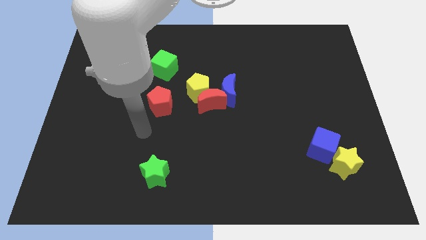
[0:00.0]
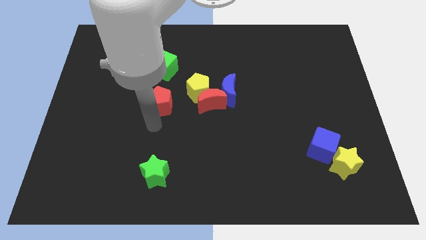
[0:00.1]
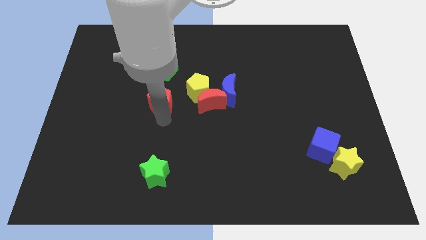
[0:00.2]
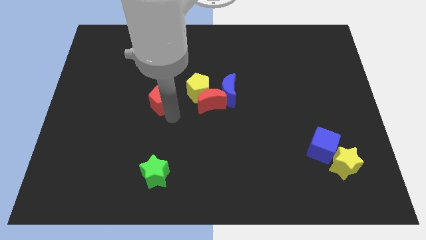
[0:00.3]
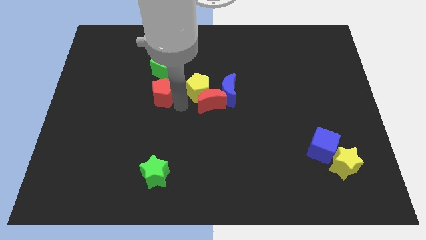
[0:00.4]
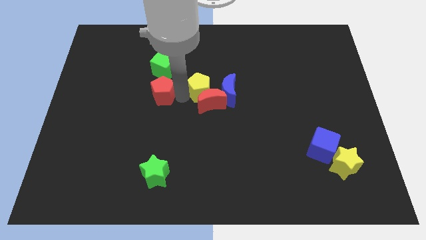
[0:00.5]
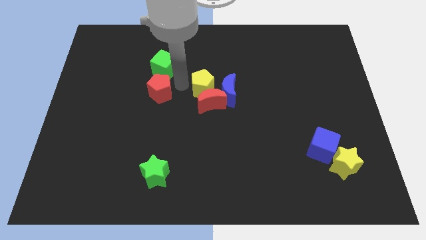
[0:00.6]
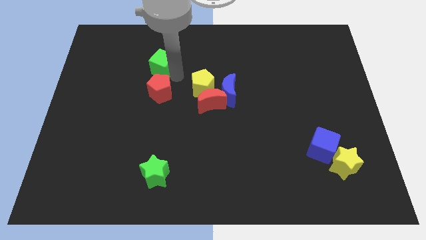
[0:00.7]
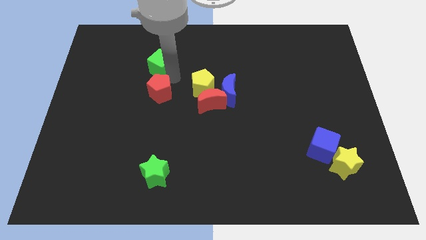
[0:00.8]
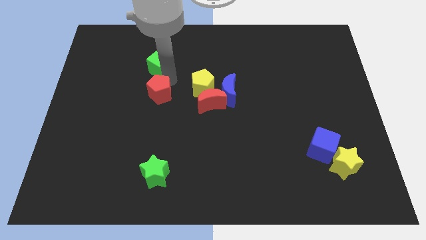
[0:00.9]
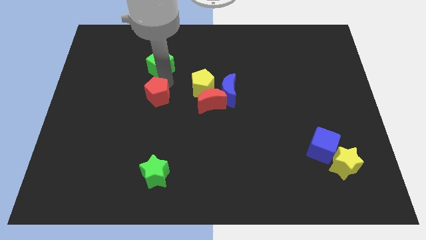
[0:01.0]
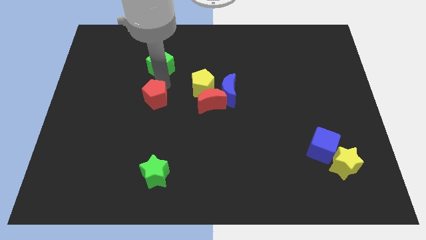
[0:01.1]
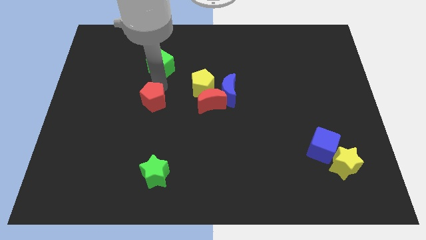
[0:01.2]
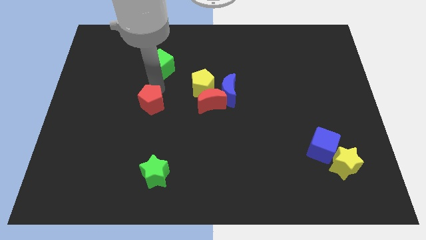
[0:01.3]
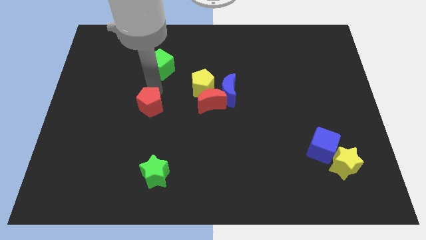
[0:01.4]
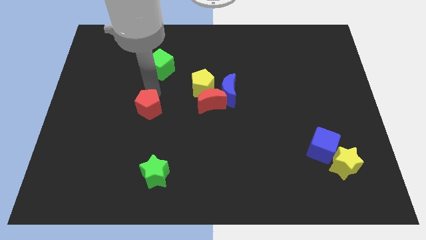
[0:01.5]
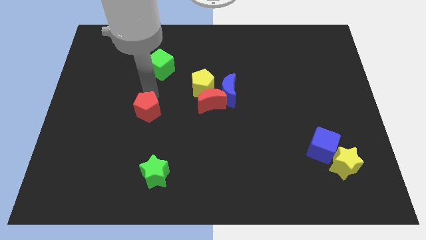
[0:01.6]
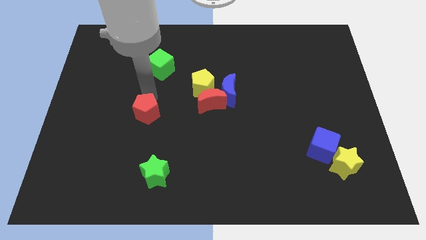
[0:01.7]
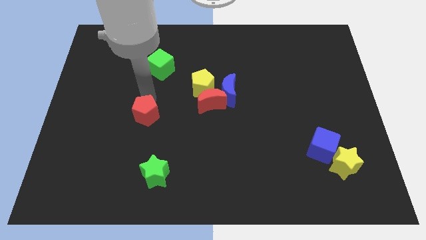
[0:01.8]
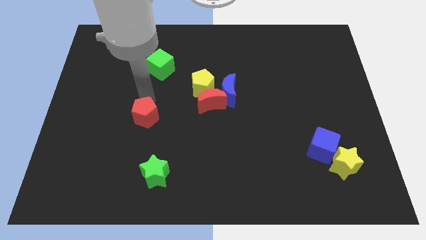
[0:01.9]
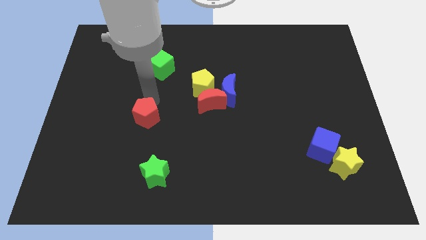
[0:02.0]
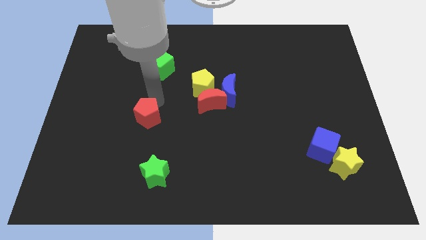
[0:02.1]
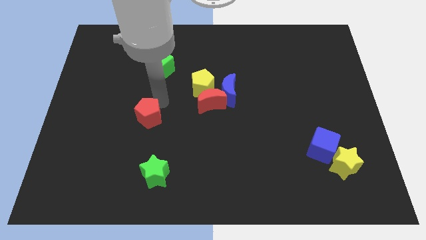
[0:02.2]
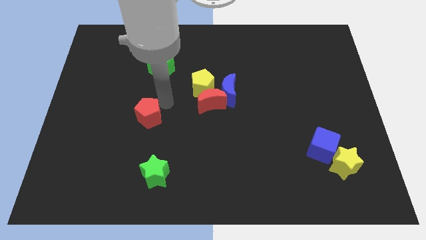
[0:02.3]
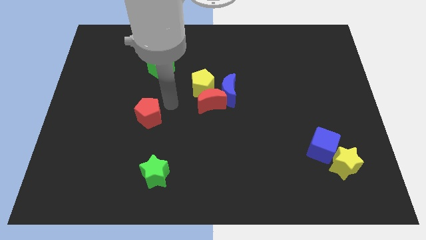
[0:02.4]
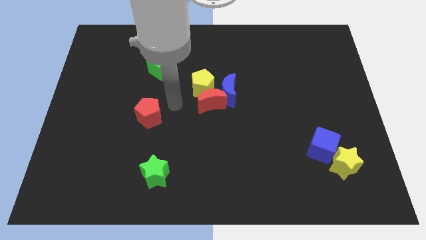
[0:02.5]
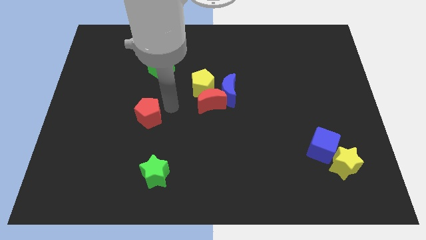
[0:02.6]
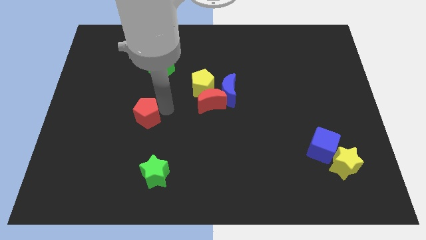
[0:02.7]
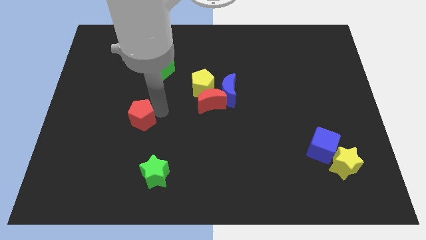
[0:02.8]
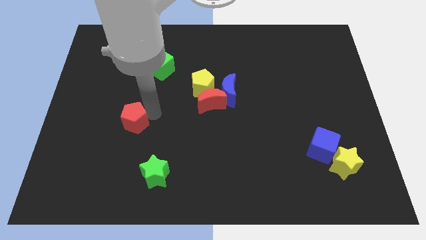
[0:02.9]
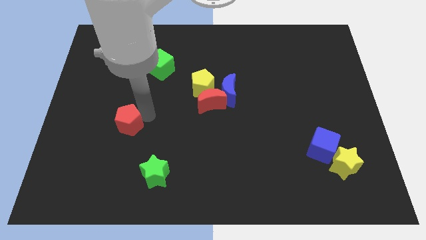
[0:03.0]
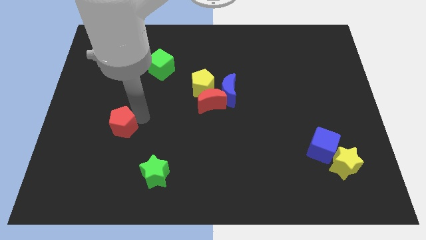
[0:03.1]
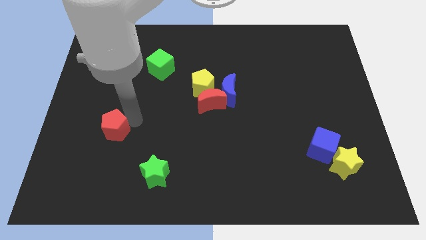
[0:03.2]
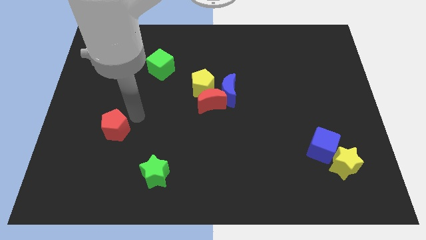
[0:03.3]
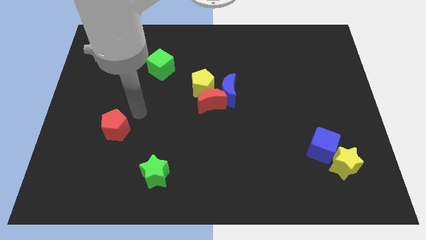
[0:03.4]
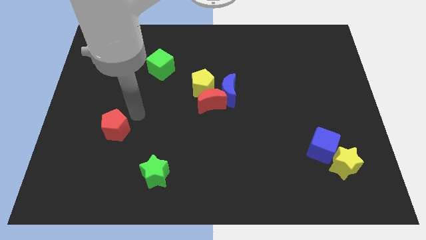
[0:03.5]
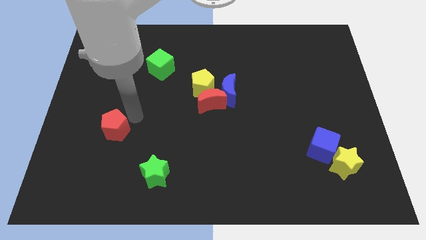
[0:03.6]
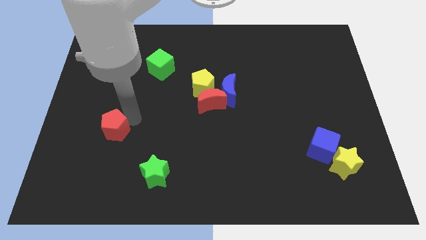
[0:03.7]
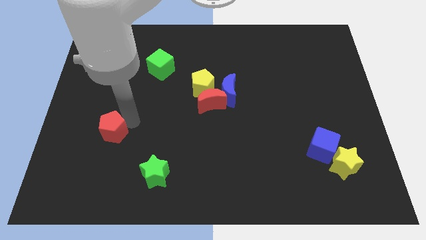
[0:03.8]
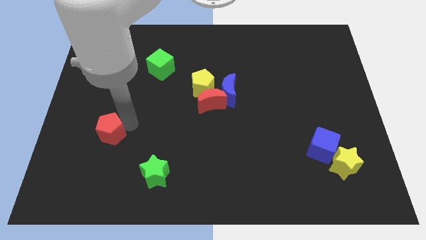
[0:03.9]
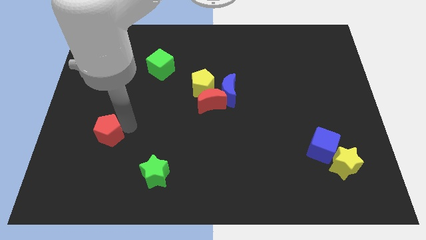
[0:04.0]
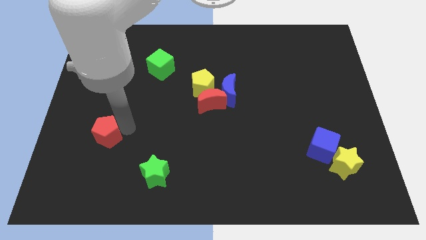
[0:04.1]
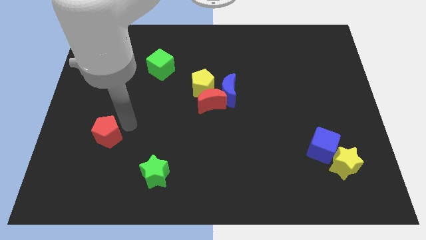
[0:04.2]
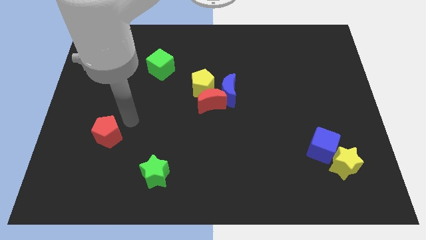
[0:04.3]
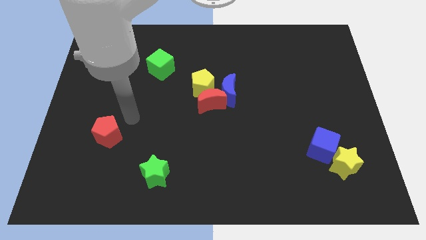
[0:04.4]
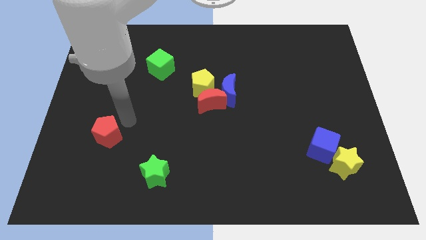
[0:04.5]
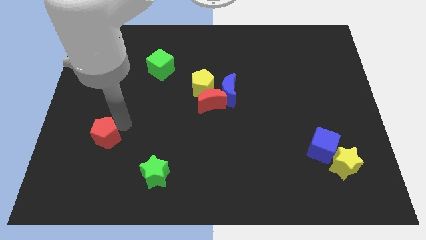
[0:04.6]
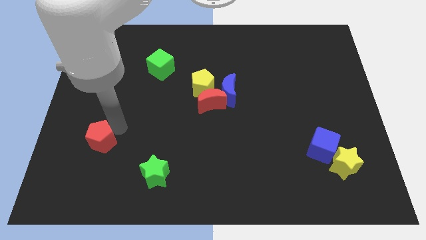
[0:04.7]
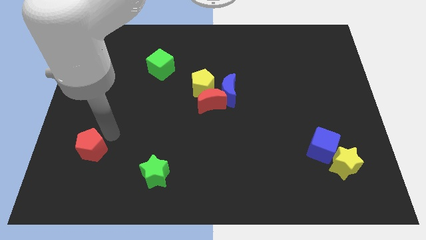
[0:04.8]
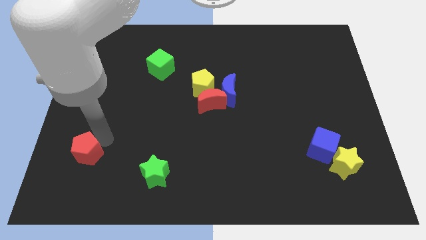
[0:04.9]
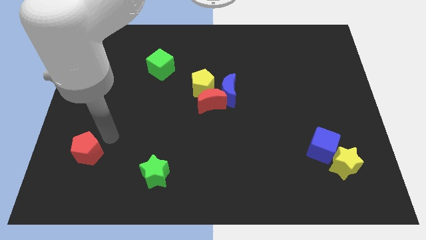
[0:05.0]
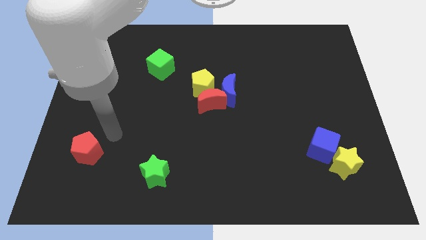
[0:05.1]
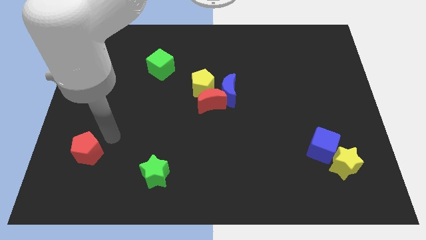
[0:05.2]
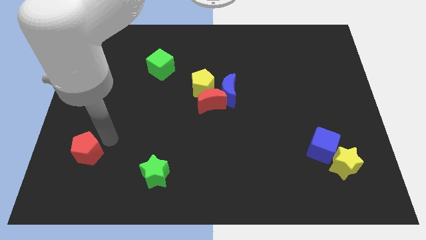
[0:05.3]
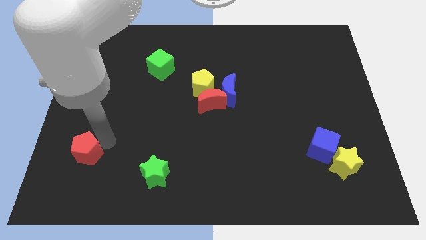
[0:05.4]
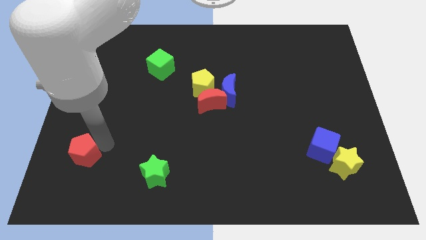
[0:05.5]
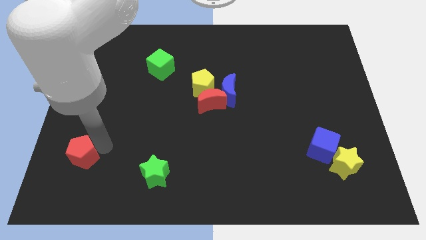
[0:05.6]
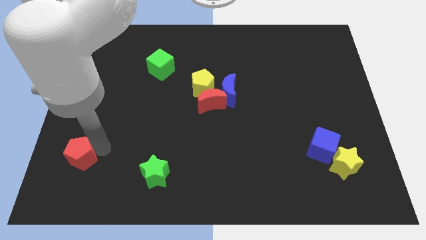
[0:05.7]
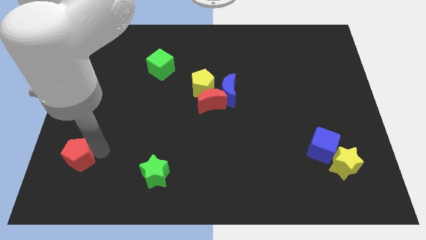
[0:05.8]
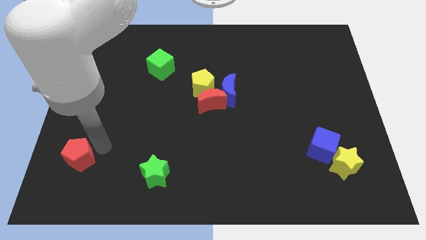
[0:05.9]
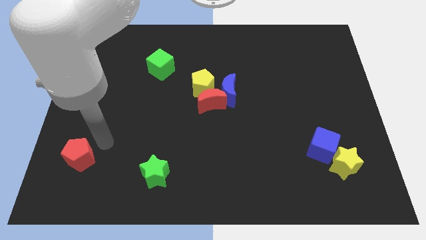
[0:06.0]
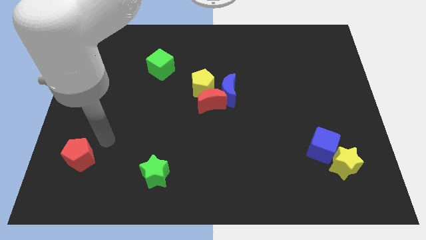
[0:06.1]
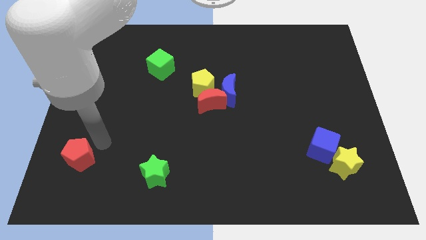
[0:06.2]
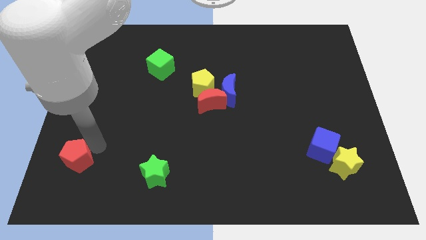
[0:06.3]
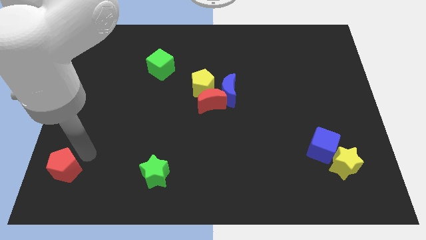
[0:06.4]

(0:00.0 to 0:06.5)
move the red pentagon to the bottom left of the board
